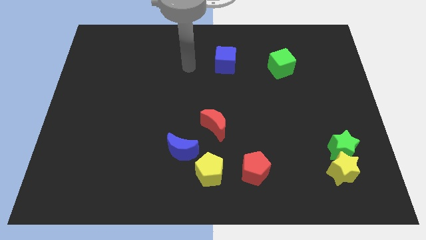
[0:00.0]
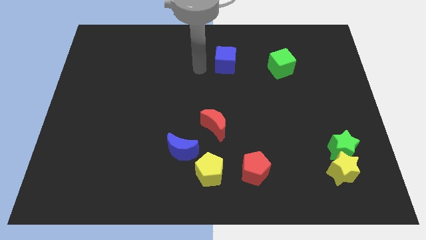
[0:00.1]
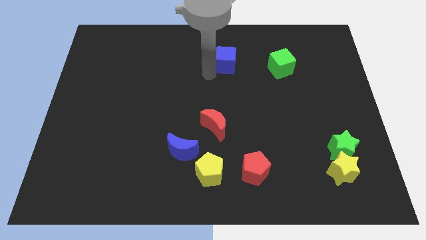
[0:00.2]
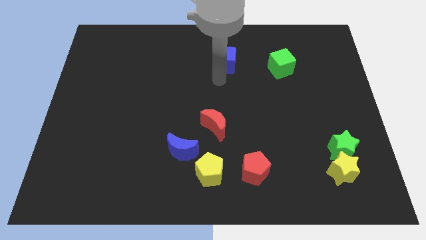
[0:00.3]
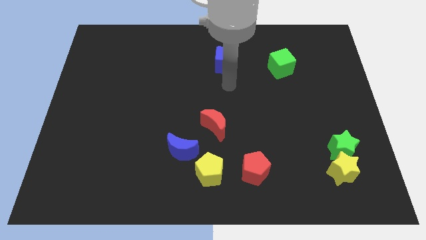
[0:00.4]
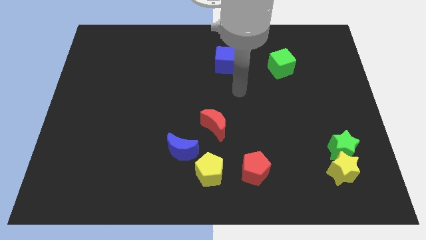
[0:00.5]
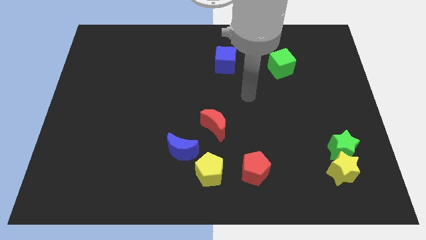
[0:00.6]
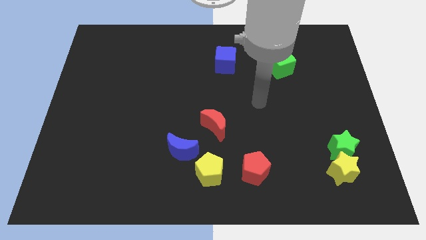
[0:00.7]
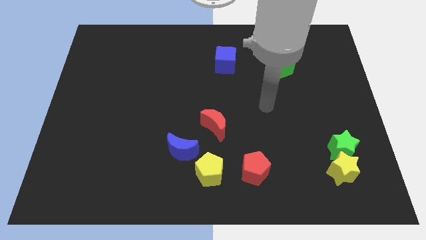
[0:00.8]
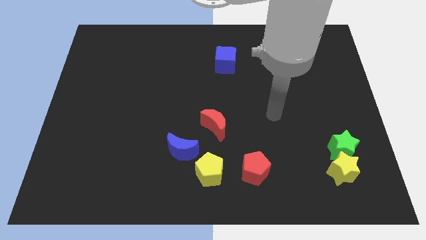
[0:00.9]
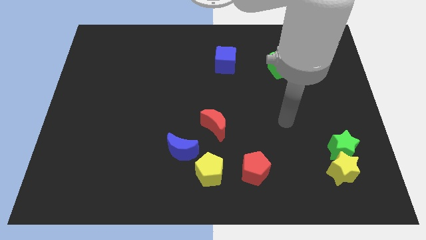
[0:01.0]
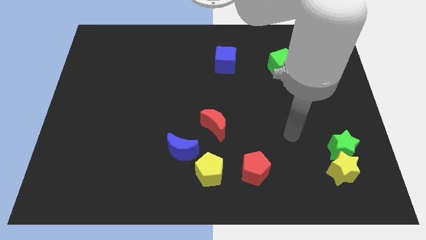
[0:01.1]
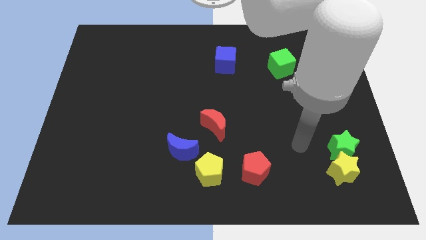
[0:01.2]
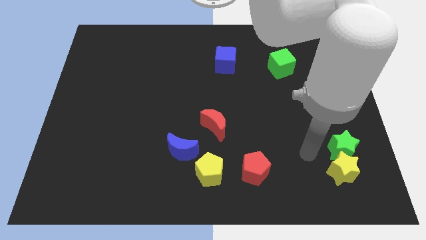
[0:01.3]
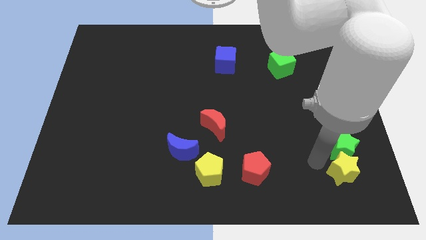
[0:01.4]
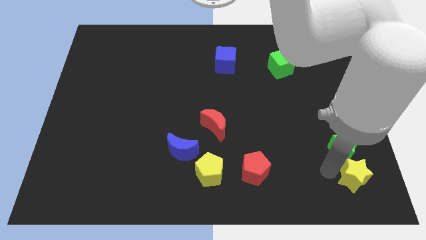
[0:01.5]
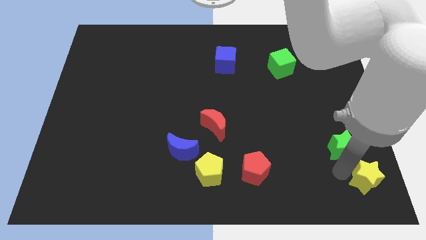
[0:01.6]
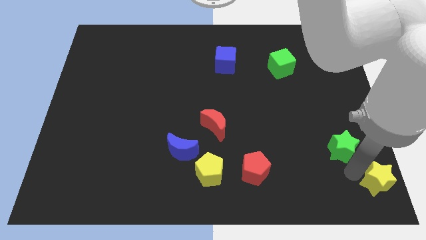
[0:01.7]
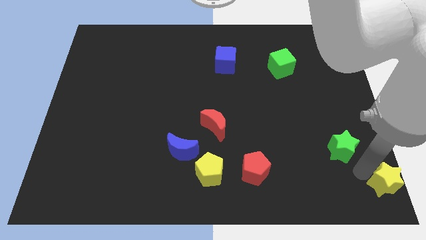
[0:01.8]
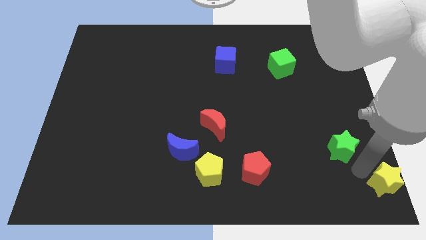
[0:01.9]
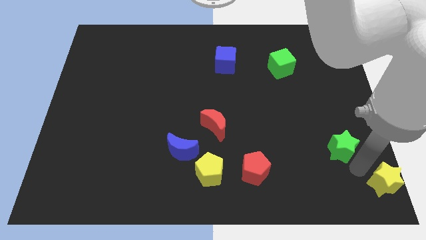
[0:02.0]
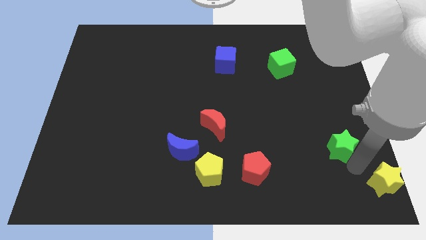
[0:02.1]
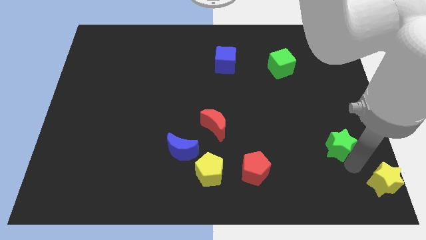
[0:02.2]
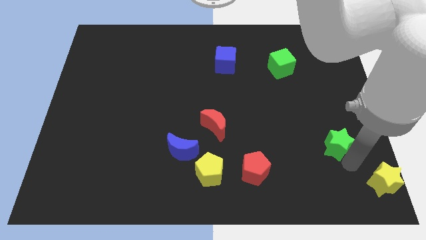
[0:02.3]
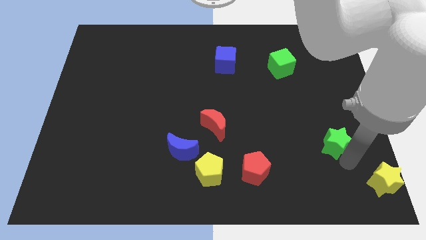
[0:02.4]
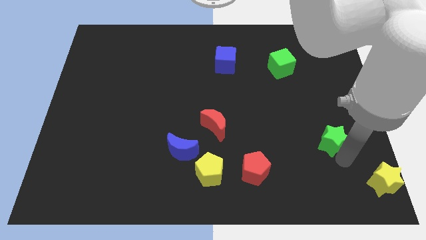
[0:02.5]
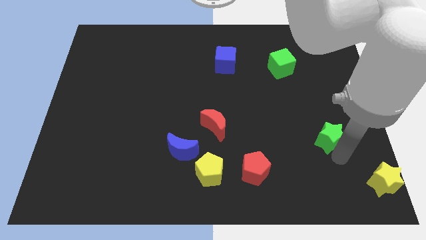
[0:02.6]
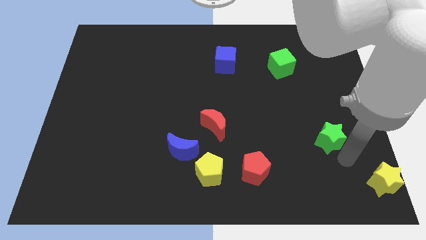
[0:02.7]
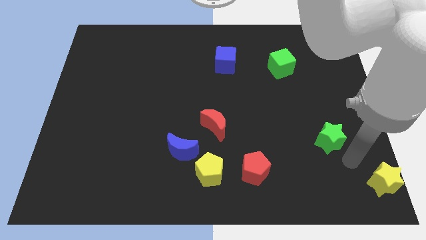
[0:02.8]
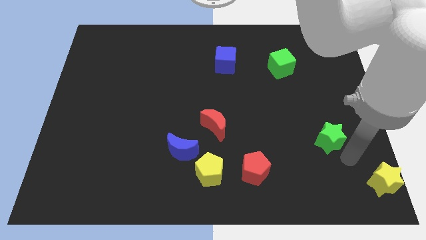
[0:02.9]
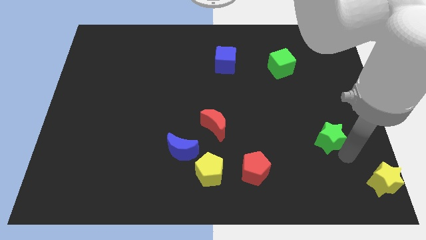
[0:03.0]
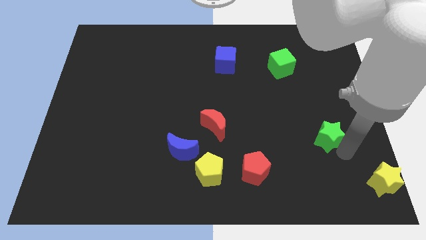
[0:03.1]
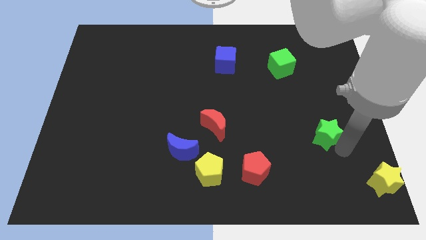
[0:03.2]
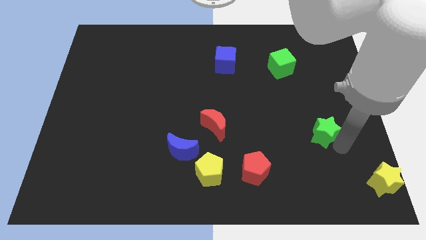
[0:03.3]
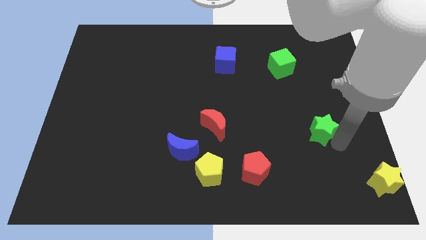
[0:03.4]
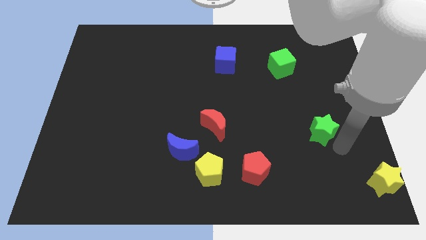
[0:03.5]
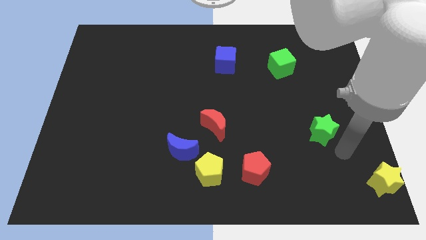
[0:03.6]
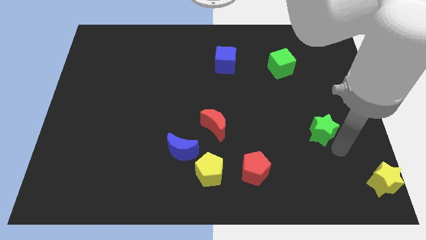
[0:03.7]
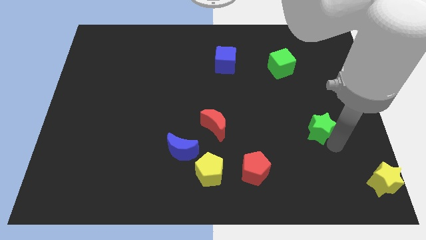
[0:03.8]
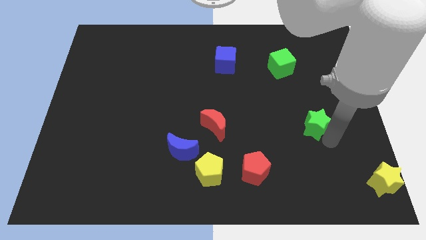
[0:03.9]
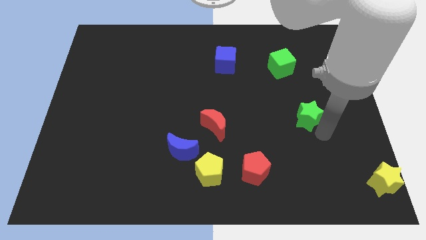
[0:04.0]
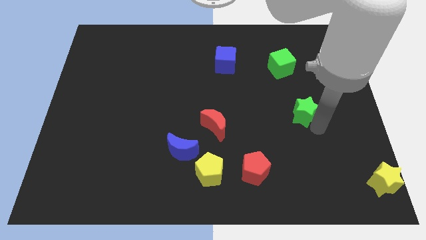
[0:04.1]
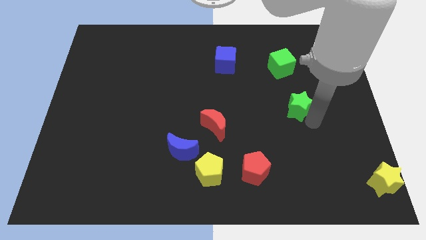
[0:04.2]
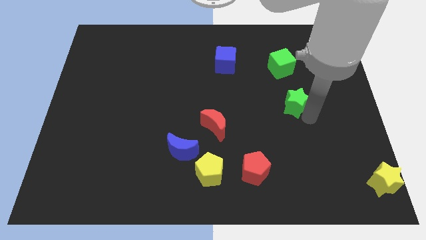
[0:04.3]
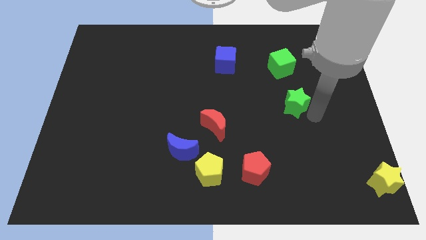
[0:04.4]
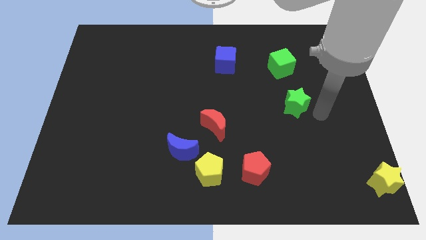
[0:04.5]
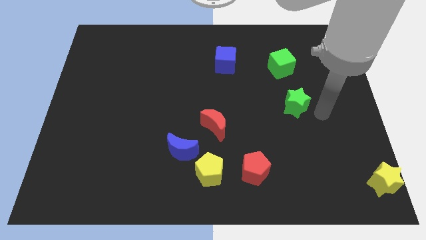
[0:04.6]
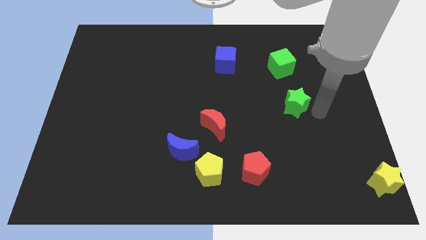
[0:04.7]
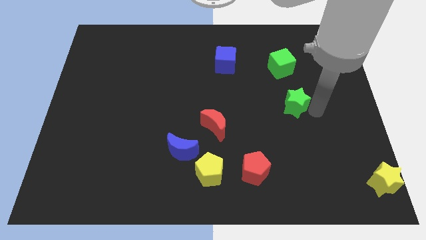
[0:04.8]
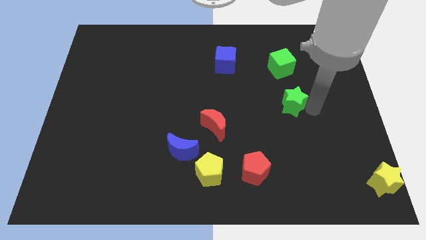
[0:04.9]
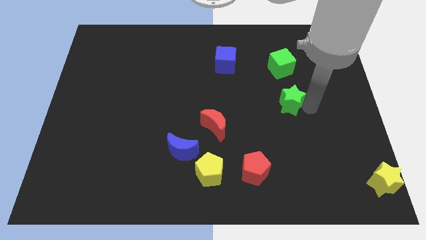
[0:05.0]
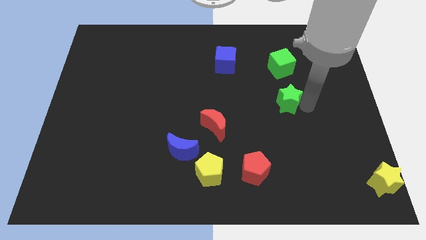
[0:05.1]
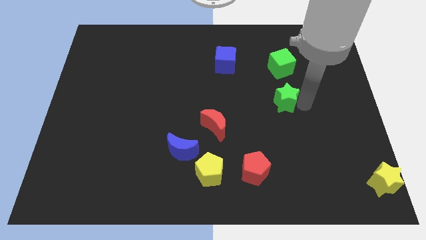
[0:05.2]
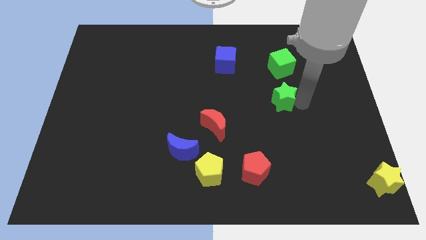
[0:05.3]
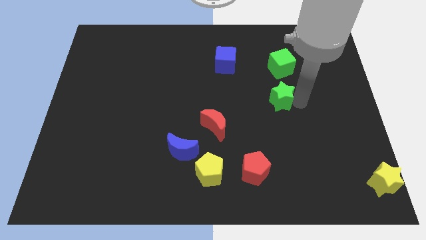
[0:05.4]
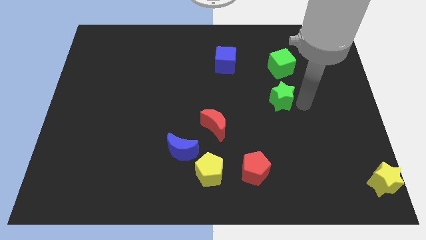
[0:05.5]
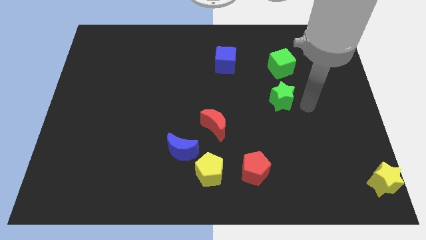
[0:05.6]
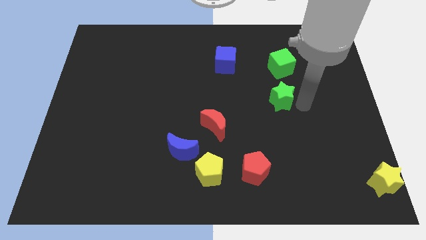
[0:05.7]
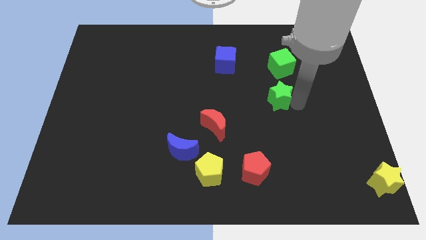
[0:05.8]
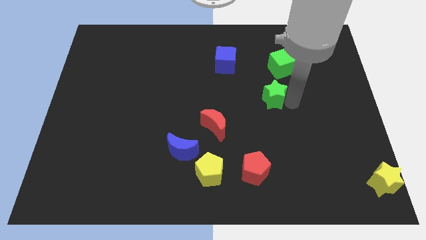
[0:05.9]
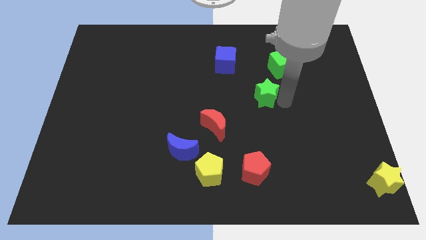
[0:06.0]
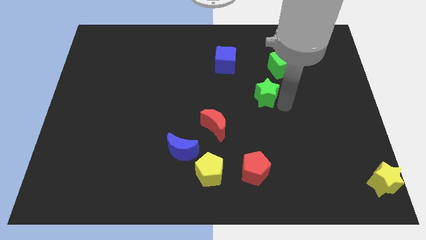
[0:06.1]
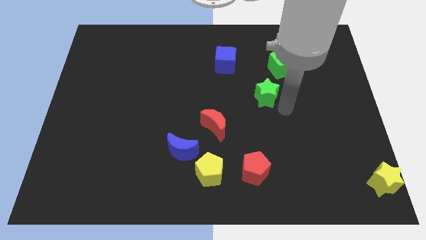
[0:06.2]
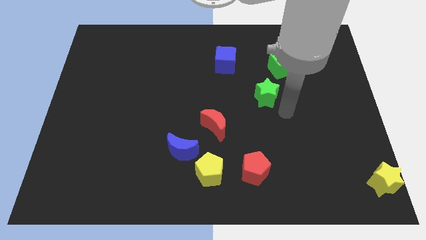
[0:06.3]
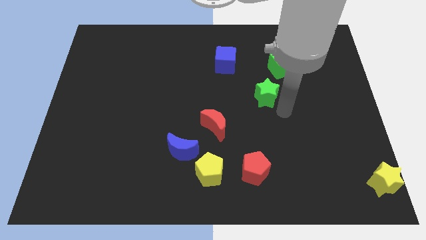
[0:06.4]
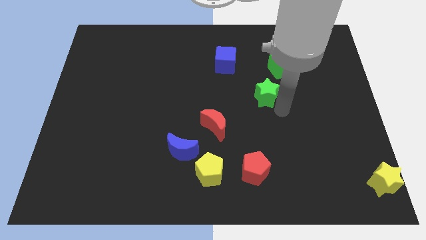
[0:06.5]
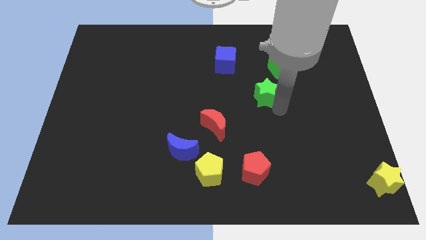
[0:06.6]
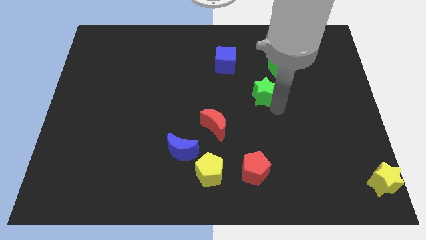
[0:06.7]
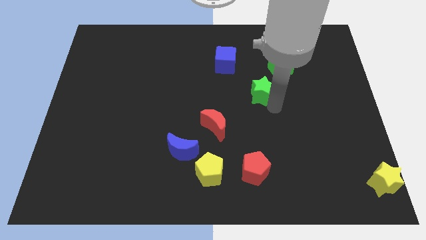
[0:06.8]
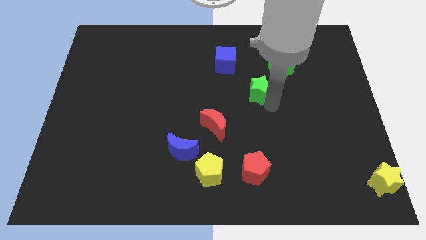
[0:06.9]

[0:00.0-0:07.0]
put the green star to the bottom right of the blue cube
